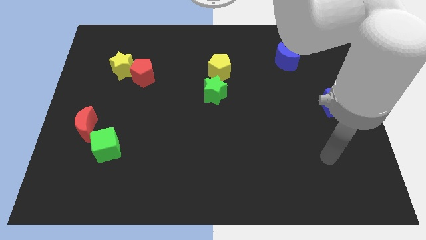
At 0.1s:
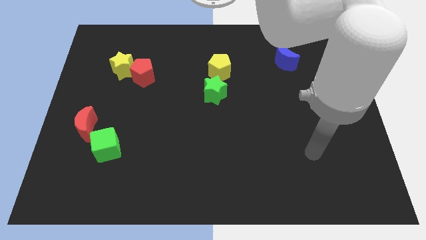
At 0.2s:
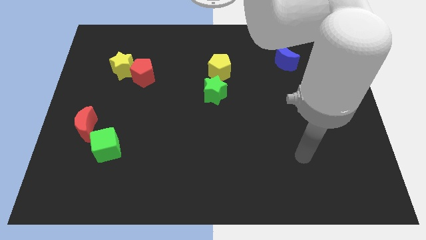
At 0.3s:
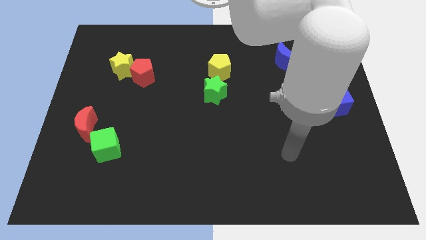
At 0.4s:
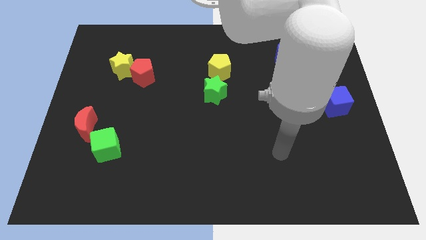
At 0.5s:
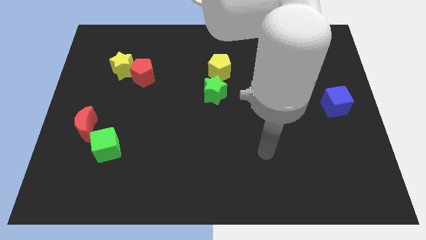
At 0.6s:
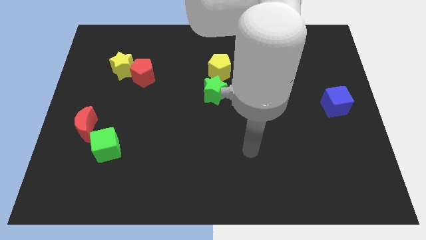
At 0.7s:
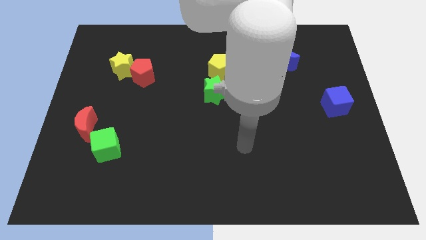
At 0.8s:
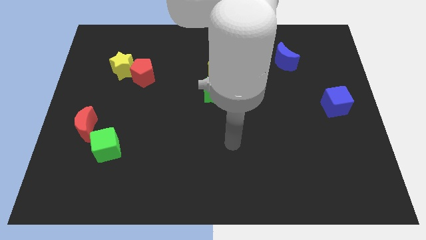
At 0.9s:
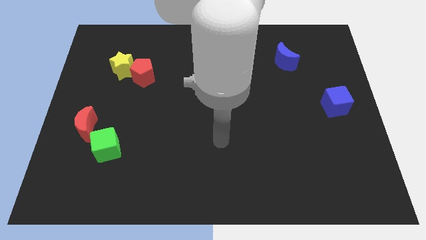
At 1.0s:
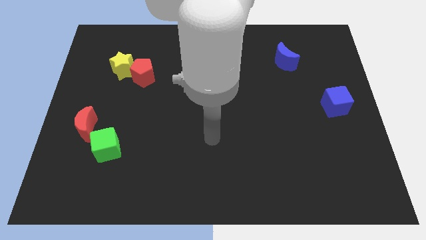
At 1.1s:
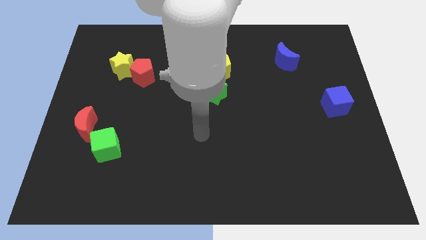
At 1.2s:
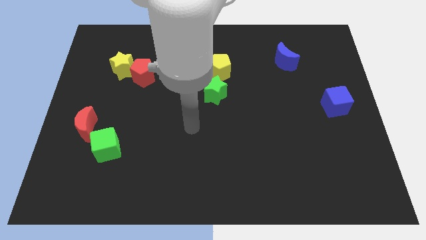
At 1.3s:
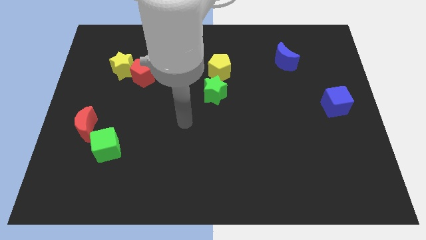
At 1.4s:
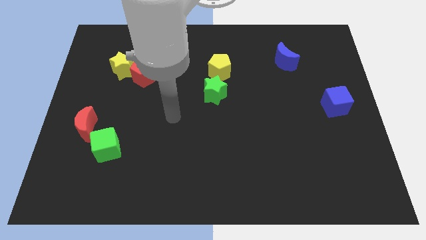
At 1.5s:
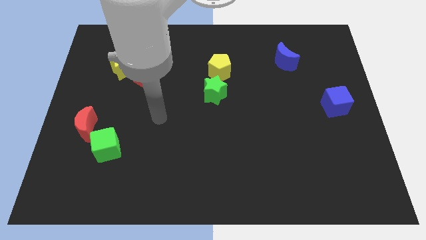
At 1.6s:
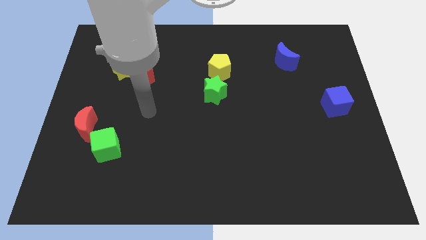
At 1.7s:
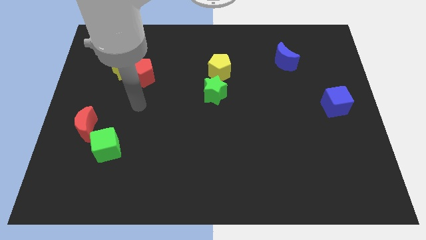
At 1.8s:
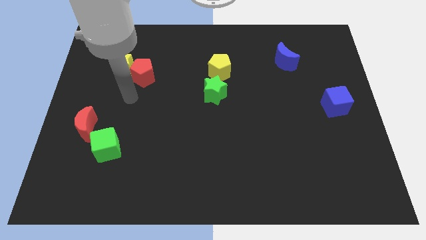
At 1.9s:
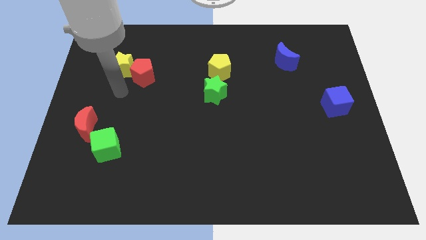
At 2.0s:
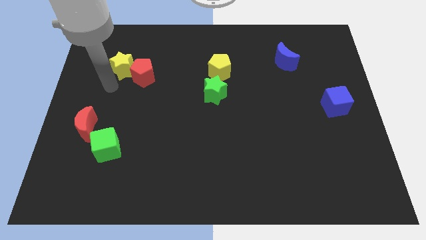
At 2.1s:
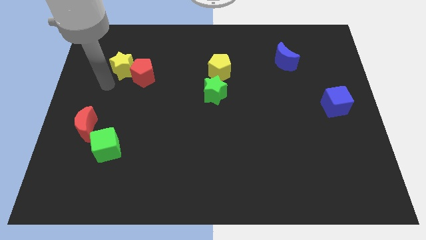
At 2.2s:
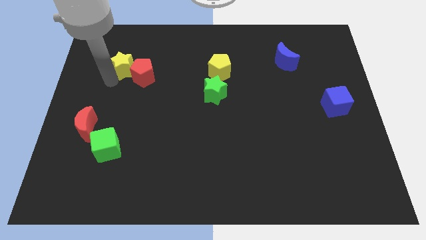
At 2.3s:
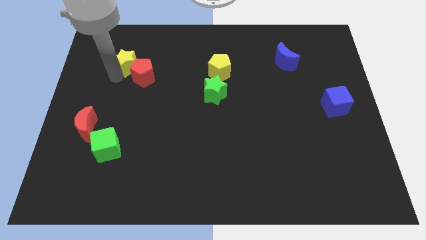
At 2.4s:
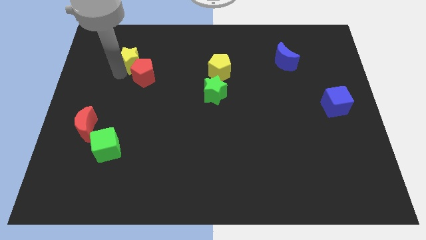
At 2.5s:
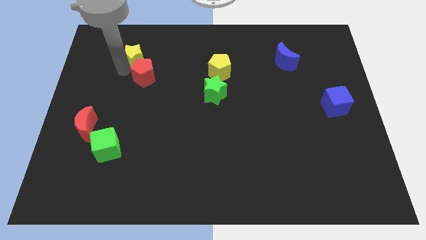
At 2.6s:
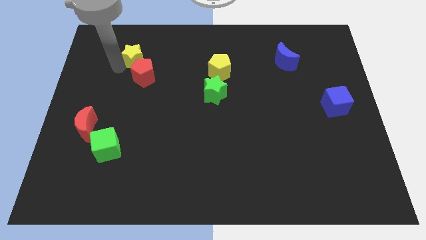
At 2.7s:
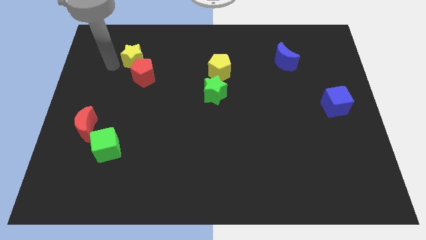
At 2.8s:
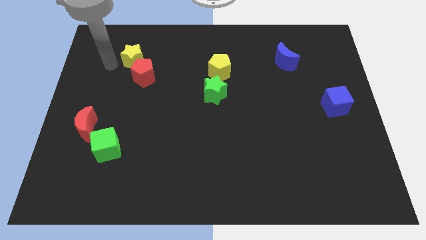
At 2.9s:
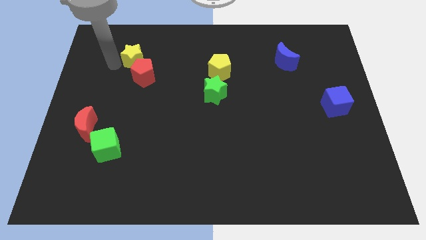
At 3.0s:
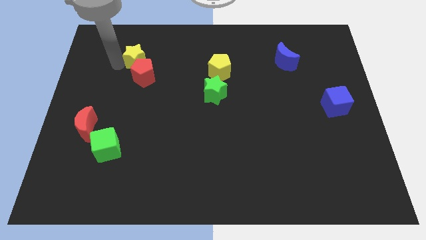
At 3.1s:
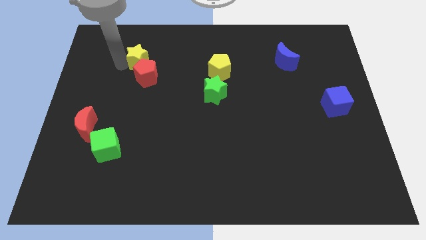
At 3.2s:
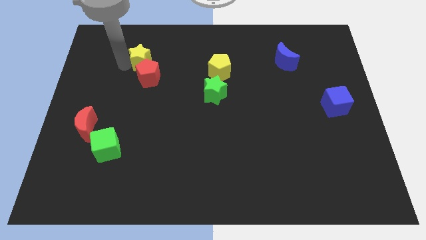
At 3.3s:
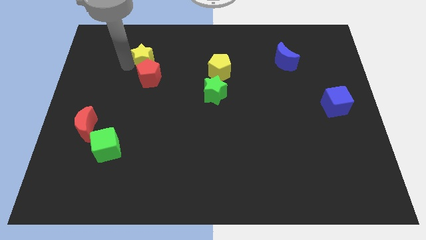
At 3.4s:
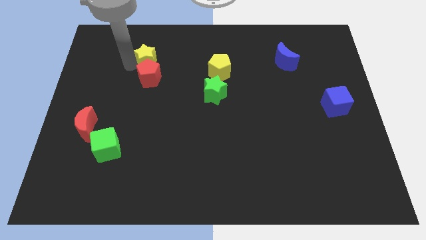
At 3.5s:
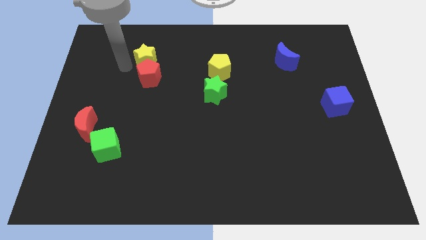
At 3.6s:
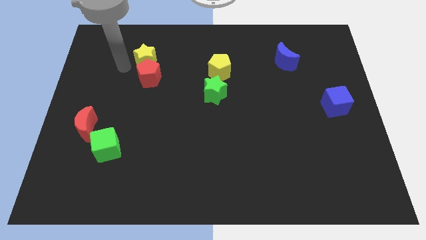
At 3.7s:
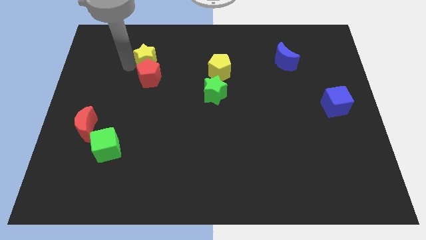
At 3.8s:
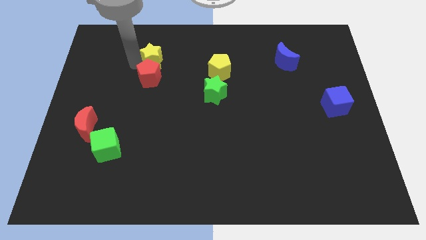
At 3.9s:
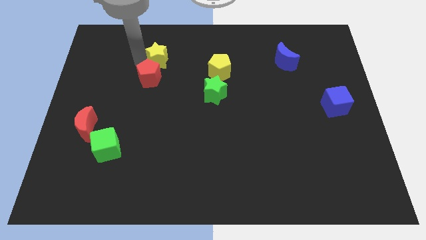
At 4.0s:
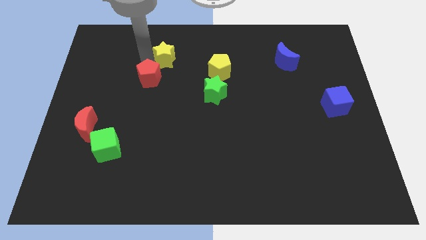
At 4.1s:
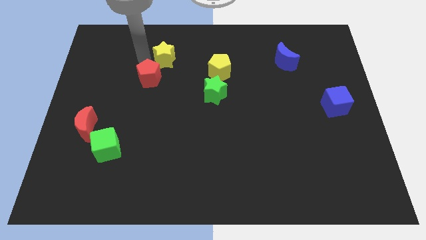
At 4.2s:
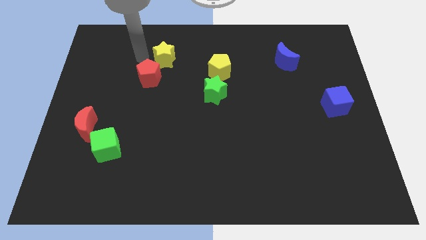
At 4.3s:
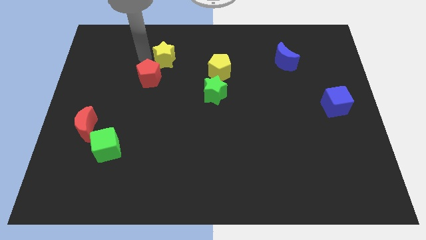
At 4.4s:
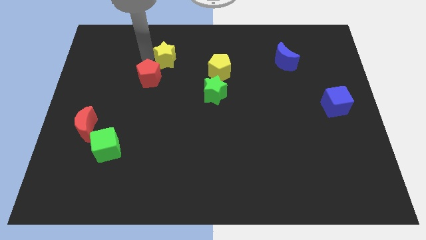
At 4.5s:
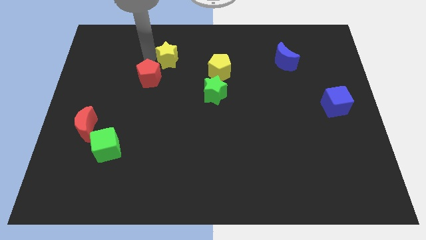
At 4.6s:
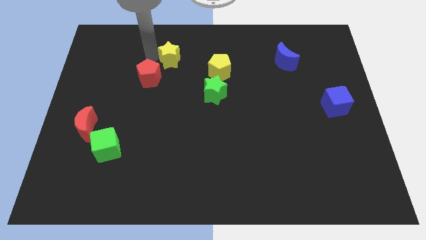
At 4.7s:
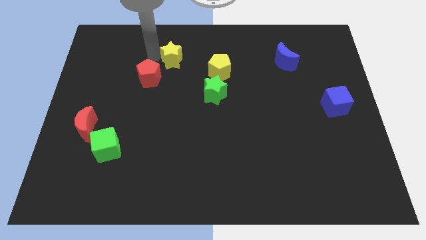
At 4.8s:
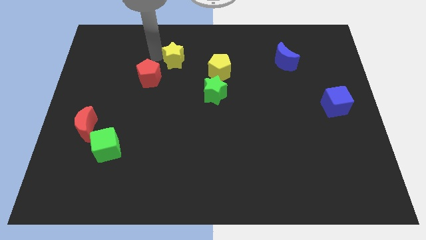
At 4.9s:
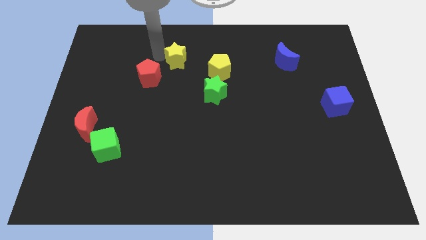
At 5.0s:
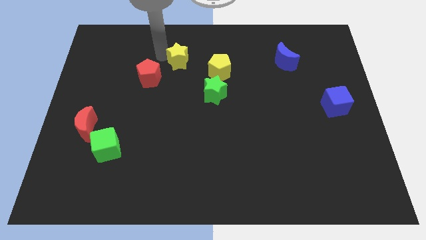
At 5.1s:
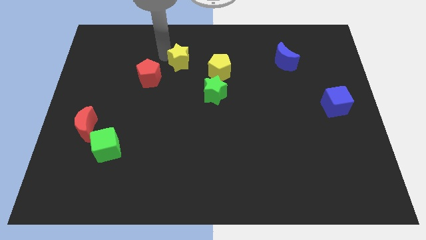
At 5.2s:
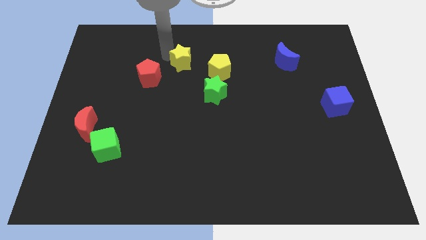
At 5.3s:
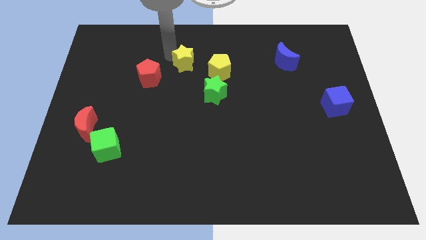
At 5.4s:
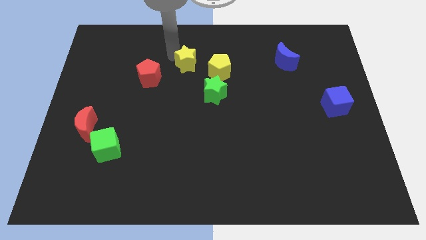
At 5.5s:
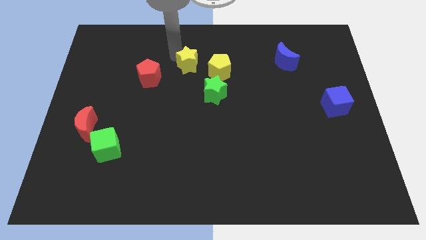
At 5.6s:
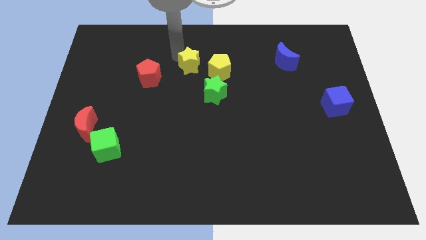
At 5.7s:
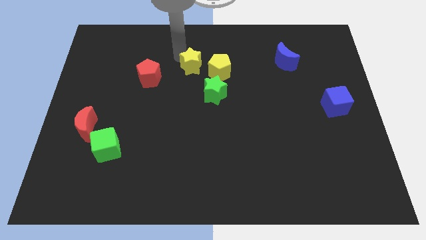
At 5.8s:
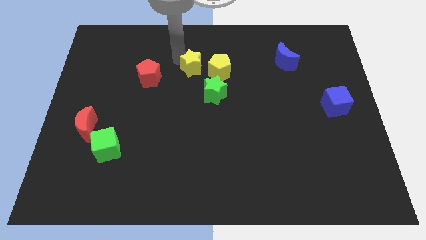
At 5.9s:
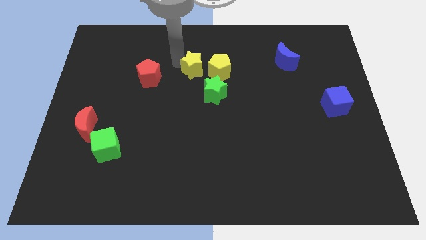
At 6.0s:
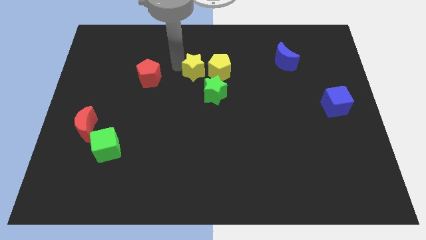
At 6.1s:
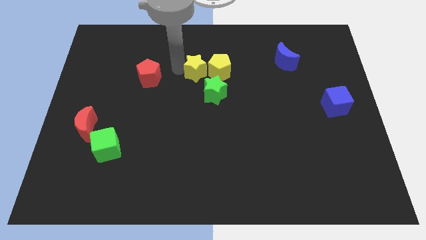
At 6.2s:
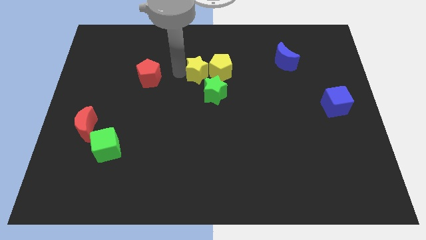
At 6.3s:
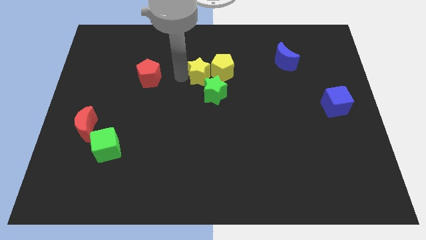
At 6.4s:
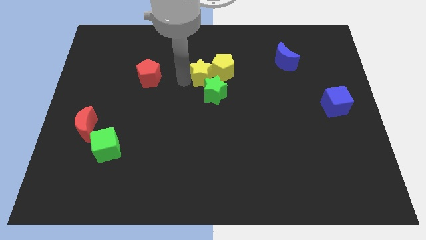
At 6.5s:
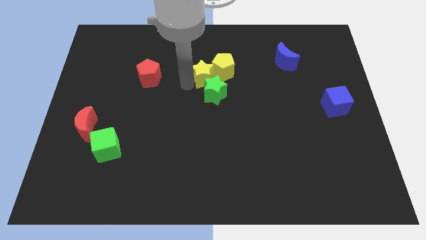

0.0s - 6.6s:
push the yellow star to the right

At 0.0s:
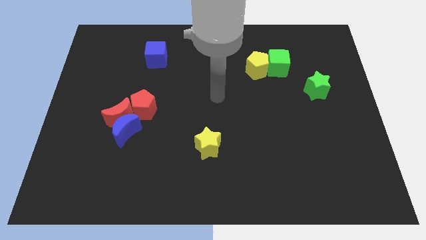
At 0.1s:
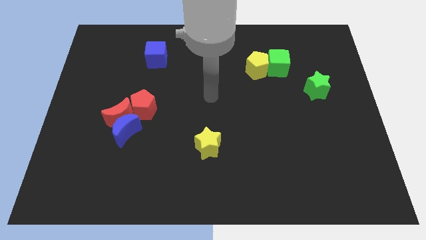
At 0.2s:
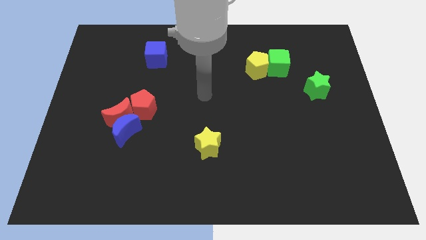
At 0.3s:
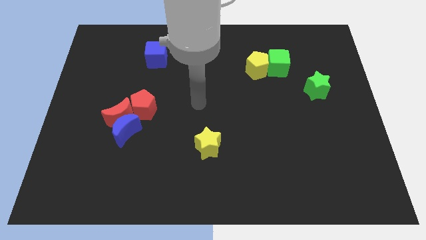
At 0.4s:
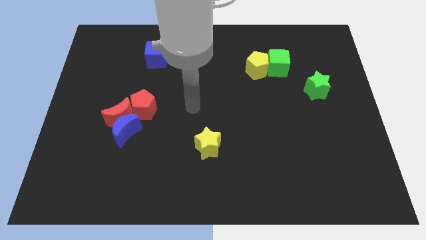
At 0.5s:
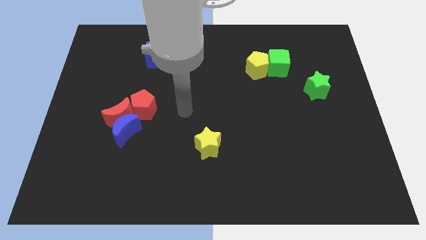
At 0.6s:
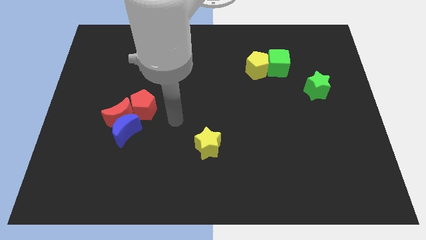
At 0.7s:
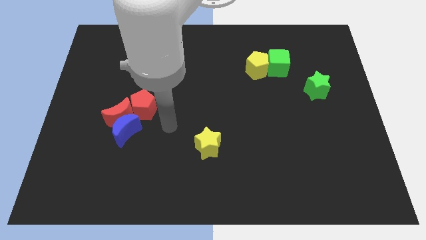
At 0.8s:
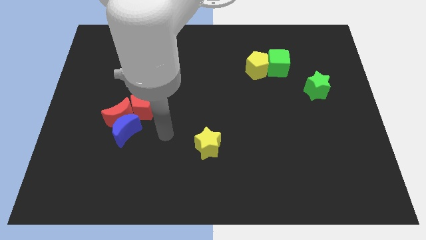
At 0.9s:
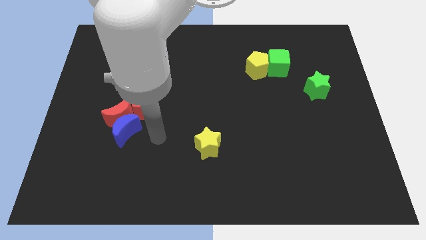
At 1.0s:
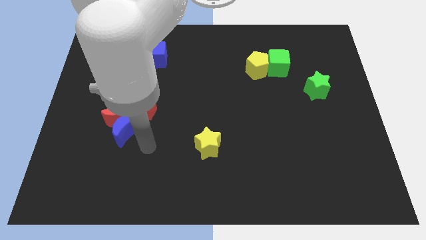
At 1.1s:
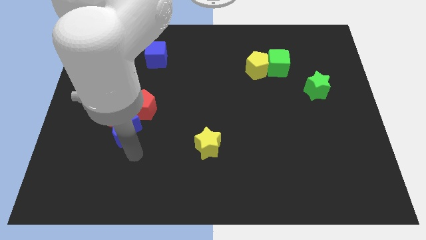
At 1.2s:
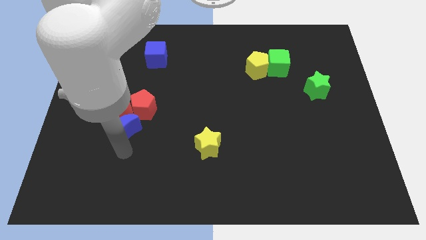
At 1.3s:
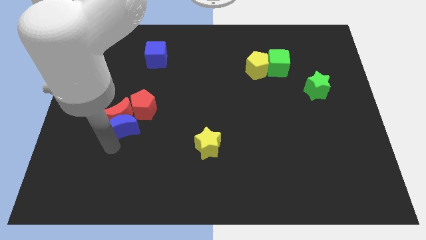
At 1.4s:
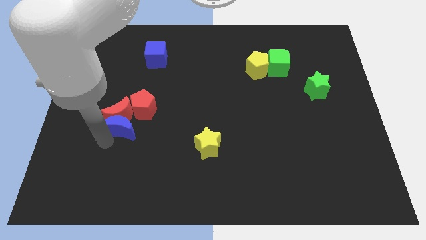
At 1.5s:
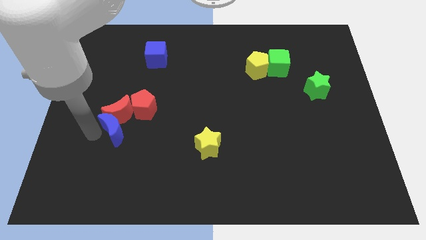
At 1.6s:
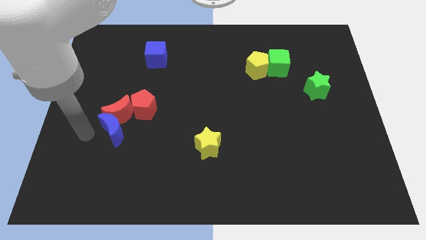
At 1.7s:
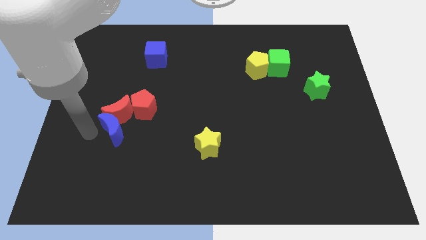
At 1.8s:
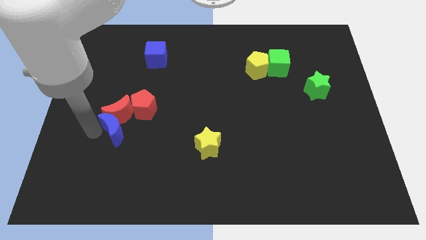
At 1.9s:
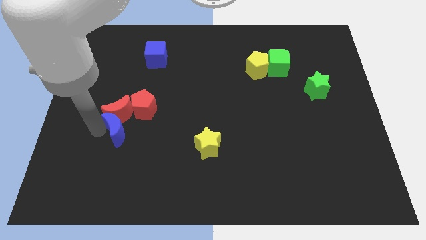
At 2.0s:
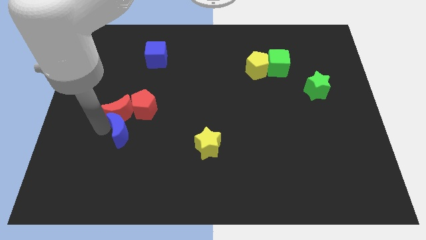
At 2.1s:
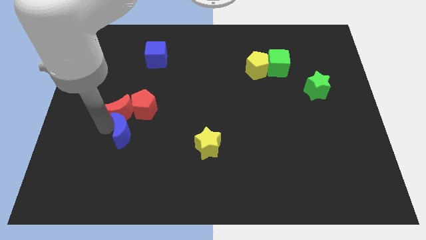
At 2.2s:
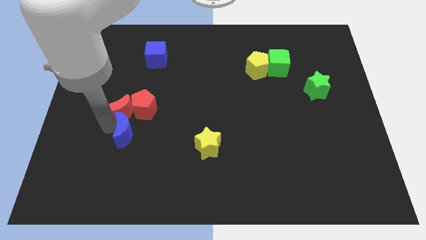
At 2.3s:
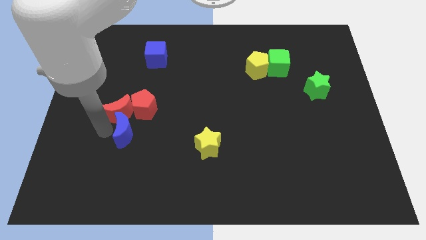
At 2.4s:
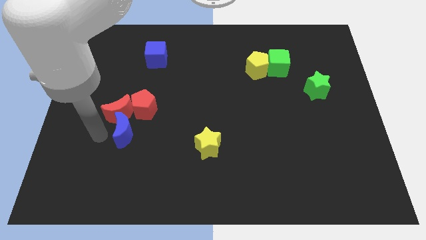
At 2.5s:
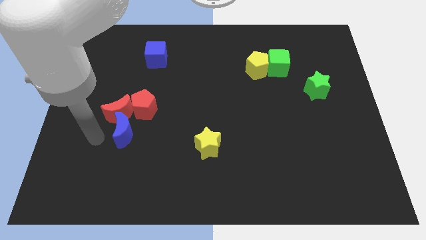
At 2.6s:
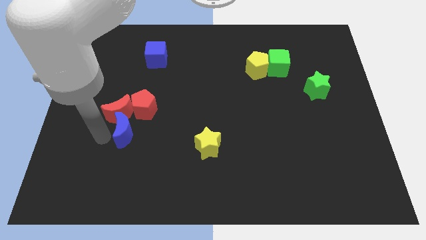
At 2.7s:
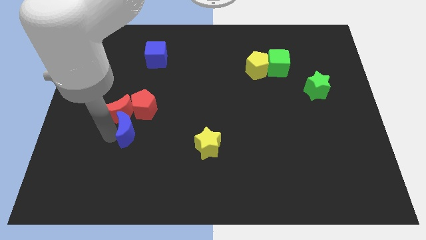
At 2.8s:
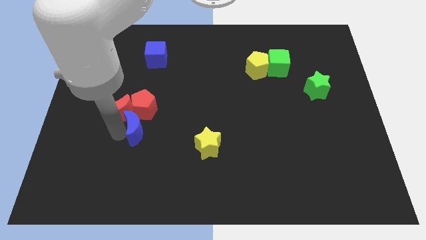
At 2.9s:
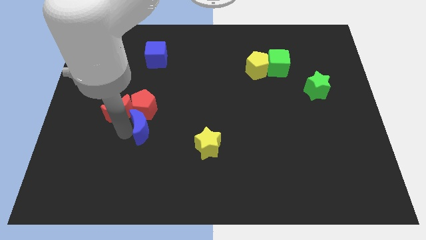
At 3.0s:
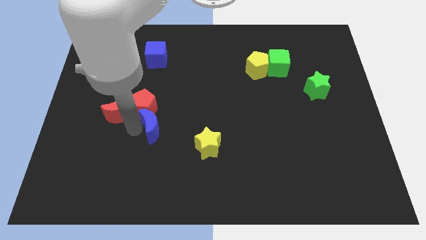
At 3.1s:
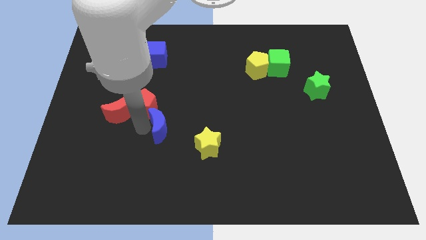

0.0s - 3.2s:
slightly slide the blue moon to the right
